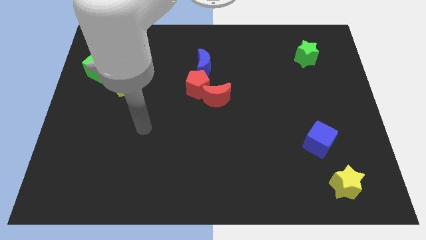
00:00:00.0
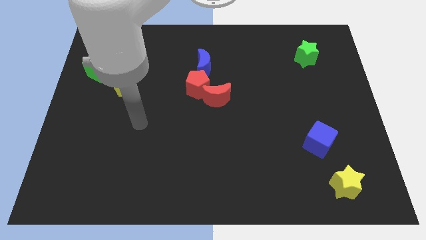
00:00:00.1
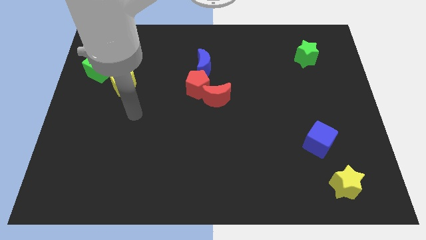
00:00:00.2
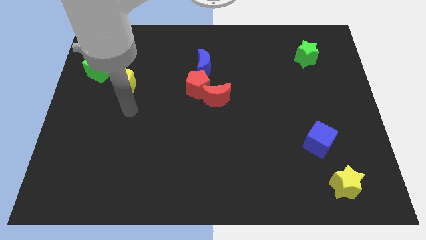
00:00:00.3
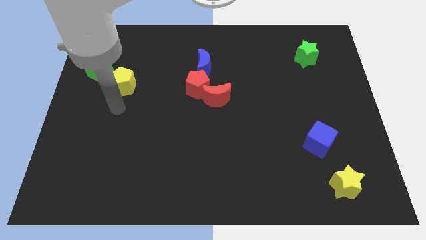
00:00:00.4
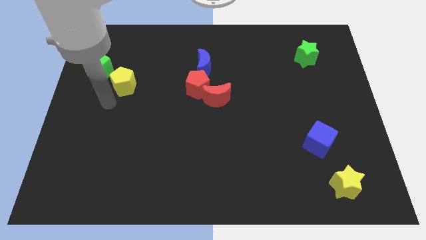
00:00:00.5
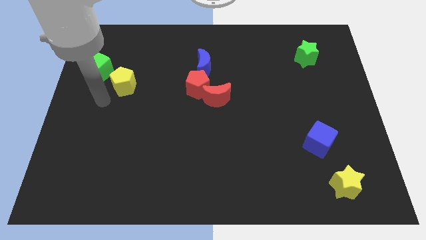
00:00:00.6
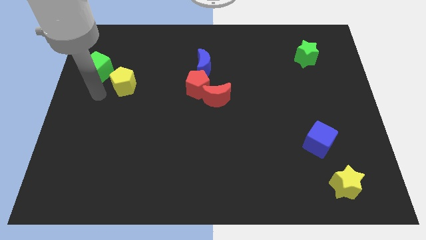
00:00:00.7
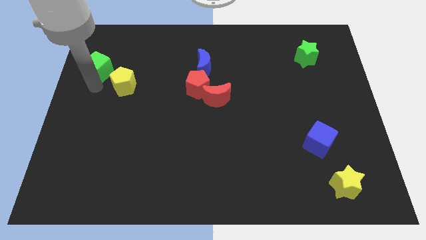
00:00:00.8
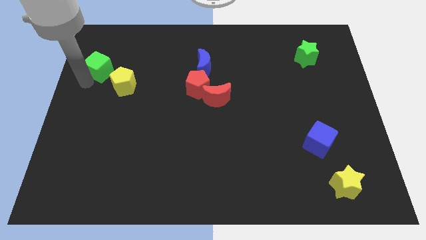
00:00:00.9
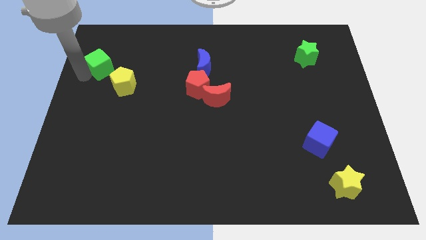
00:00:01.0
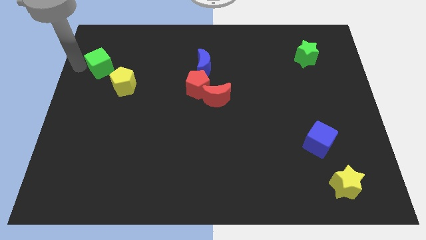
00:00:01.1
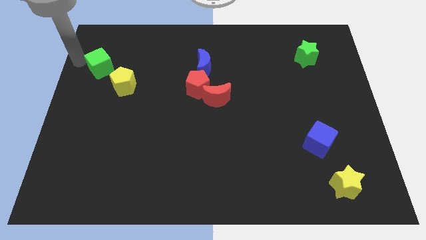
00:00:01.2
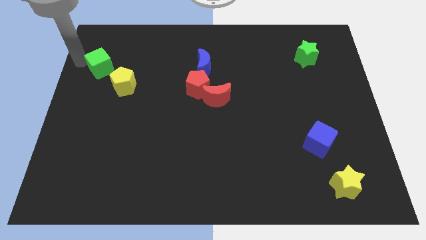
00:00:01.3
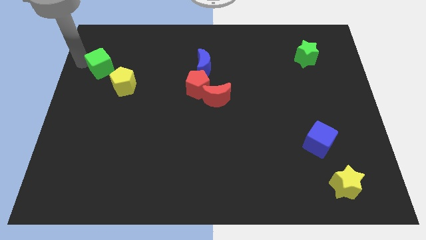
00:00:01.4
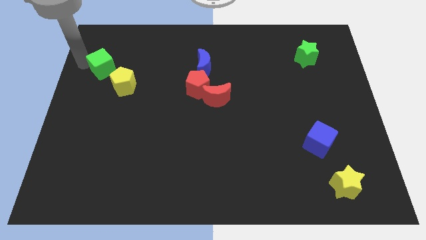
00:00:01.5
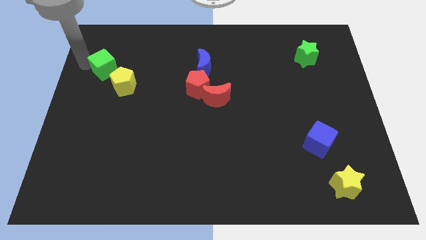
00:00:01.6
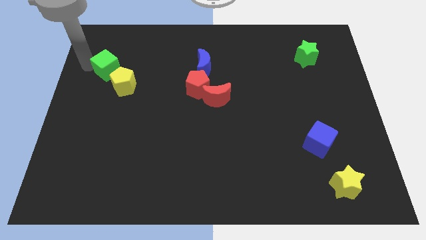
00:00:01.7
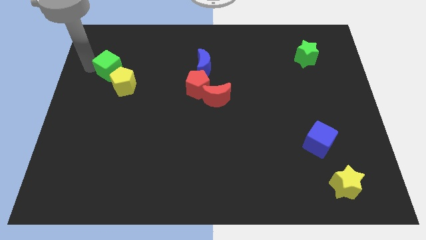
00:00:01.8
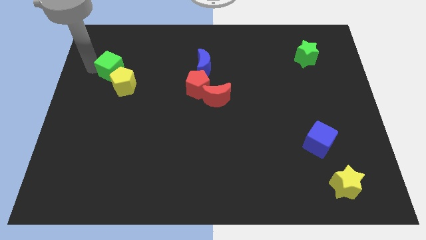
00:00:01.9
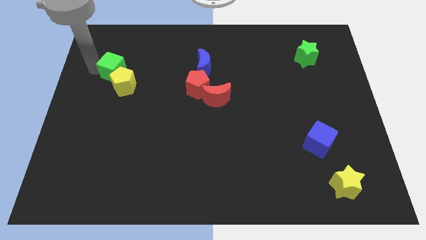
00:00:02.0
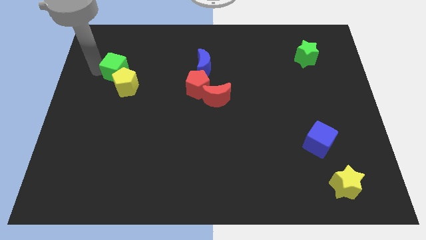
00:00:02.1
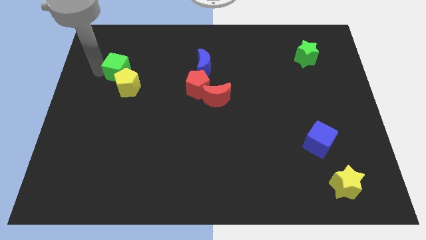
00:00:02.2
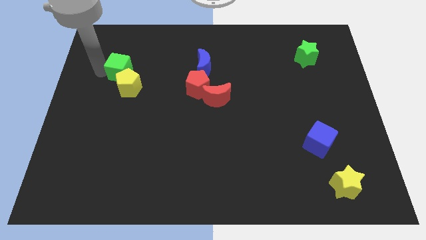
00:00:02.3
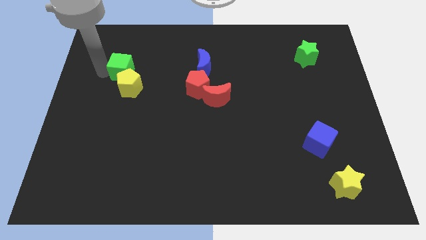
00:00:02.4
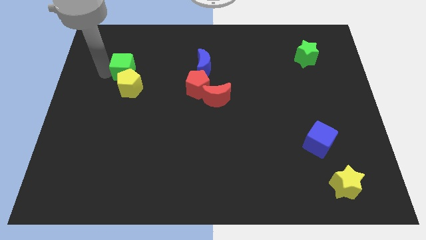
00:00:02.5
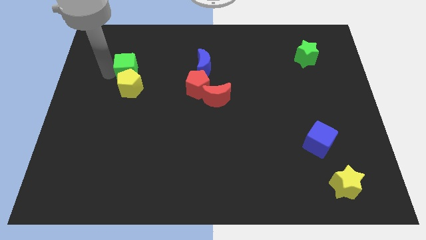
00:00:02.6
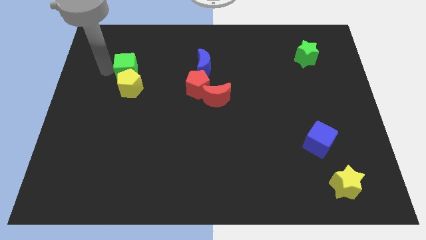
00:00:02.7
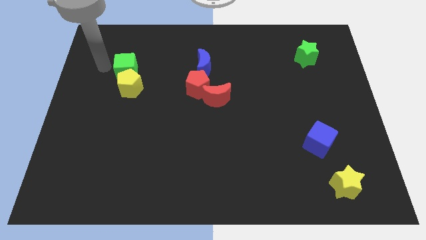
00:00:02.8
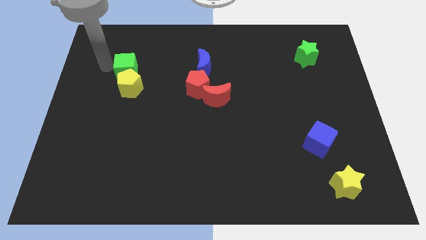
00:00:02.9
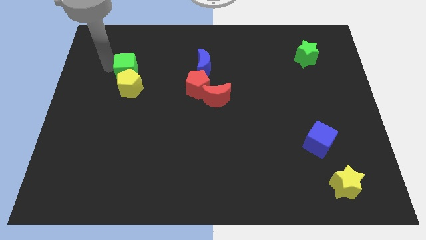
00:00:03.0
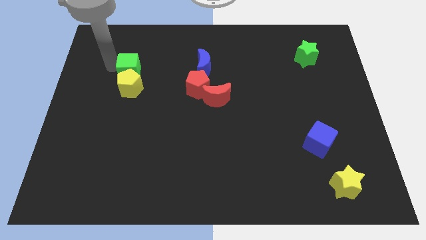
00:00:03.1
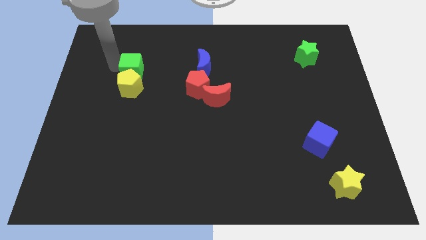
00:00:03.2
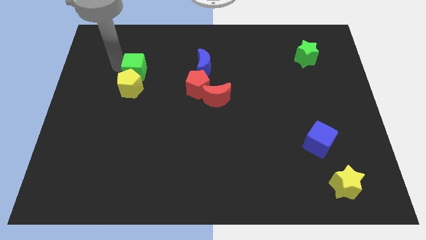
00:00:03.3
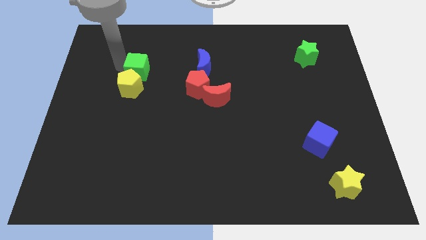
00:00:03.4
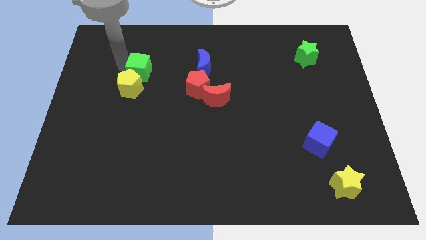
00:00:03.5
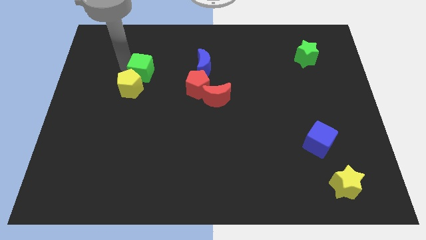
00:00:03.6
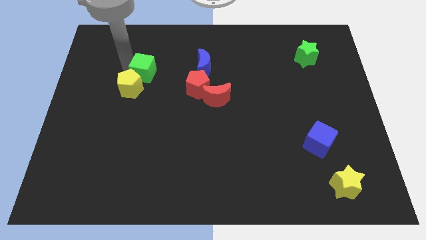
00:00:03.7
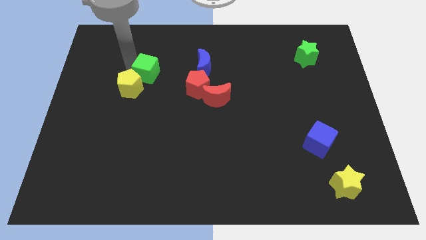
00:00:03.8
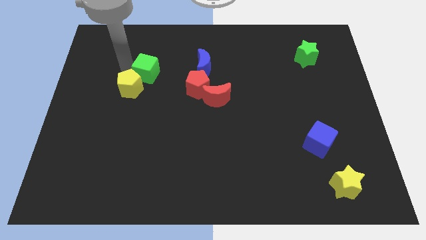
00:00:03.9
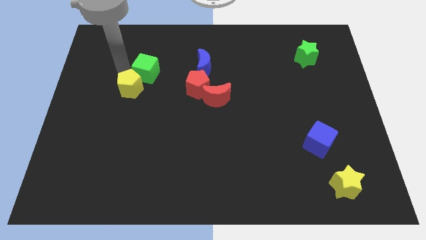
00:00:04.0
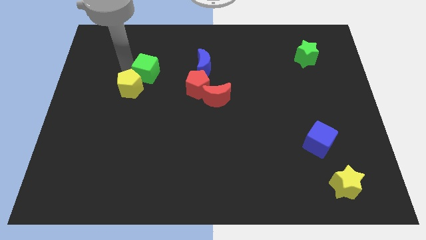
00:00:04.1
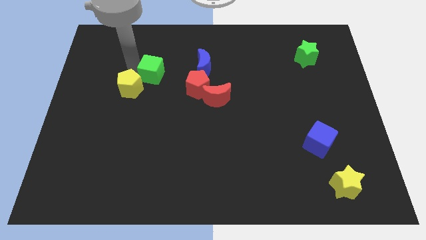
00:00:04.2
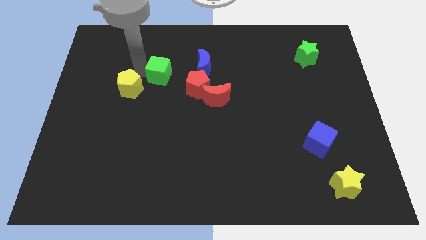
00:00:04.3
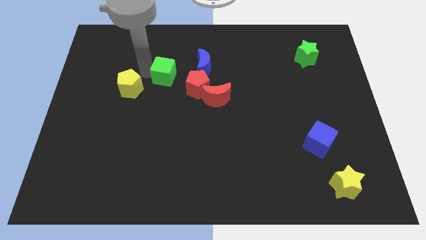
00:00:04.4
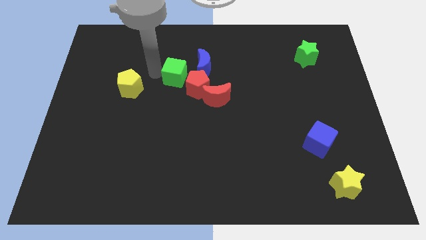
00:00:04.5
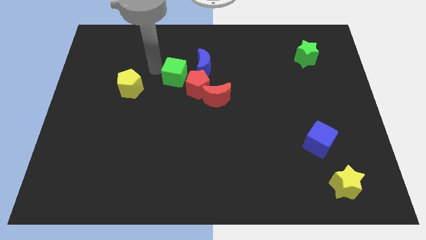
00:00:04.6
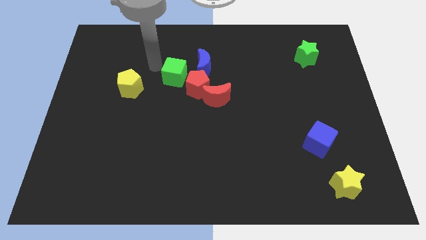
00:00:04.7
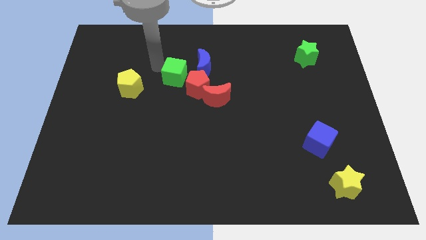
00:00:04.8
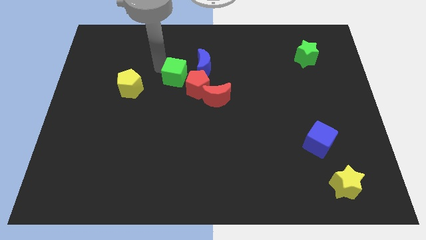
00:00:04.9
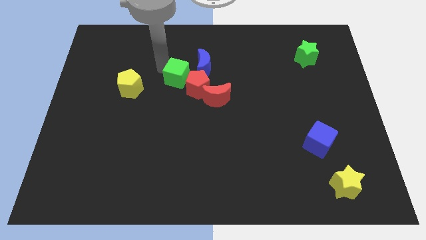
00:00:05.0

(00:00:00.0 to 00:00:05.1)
put the green cube close to the red pentagon

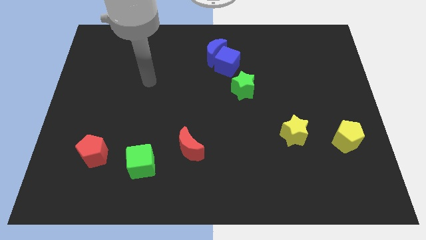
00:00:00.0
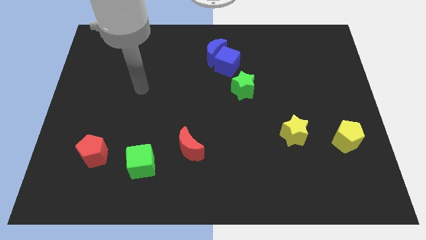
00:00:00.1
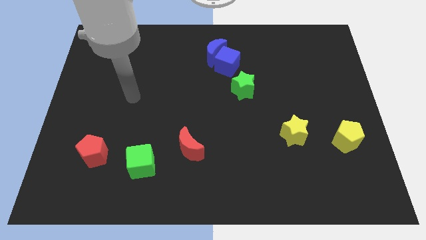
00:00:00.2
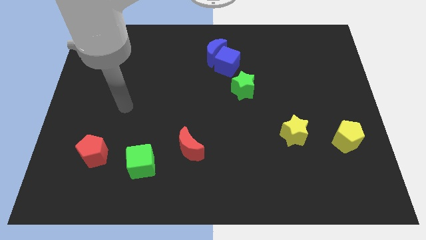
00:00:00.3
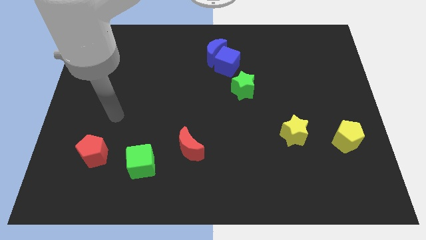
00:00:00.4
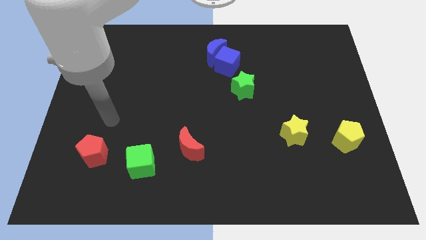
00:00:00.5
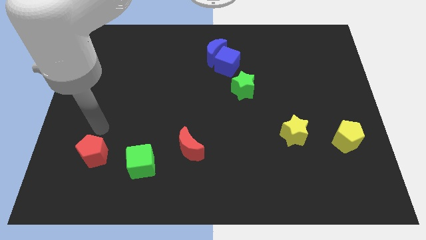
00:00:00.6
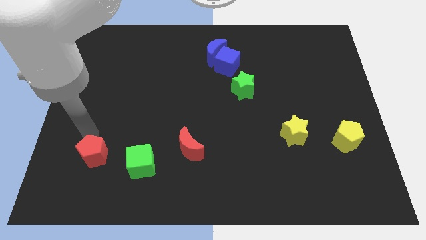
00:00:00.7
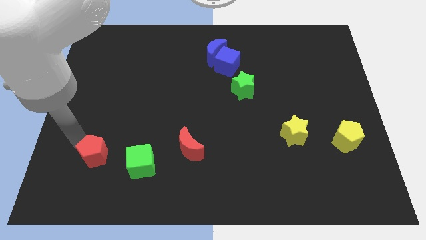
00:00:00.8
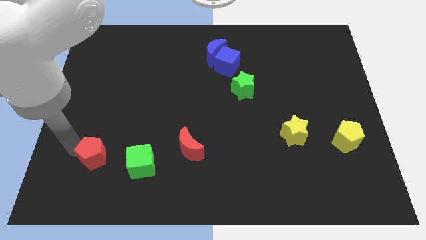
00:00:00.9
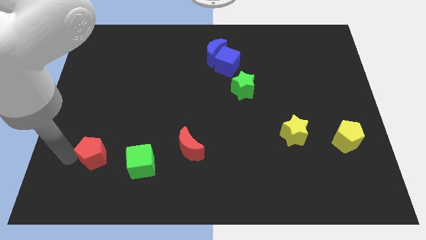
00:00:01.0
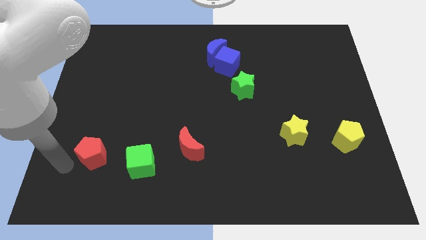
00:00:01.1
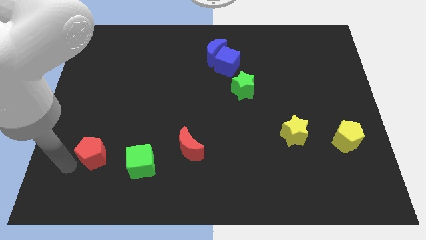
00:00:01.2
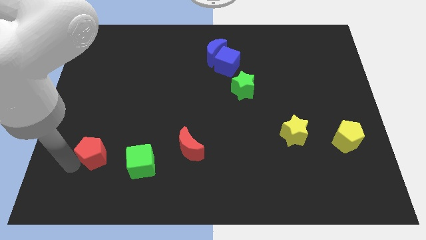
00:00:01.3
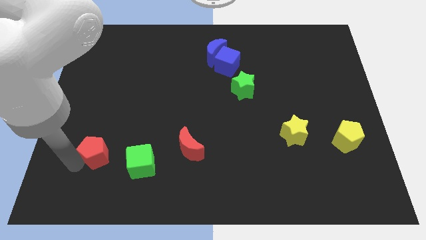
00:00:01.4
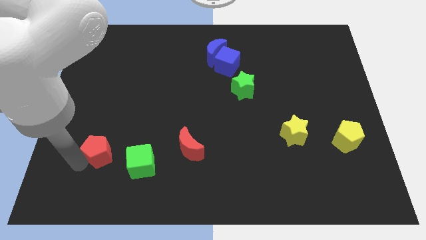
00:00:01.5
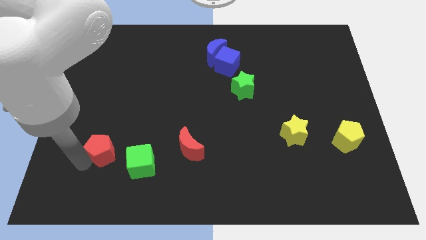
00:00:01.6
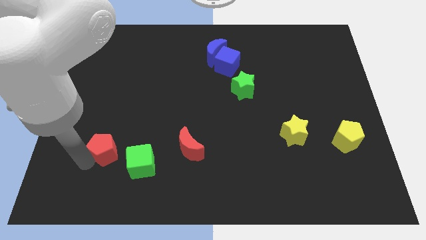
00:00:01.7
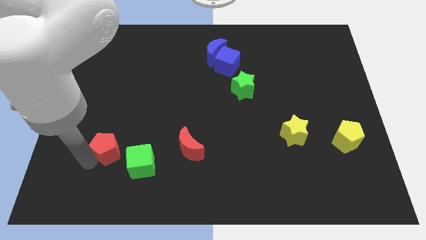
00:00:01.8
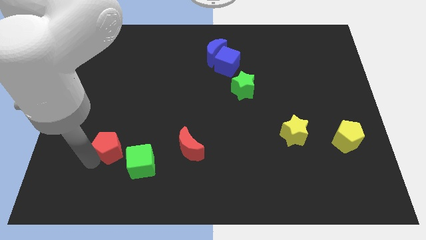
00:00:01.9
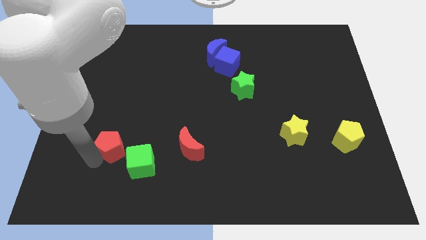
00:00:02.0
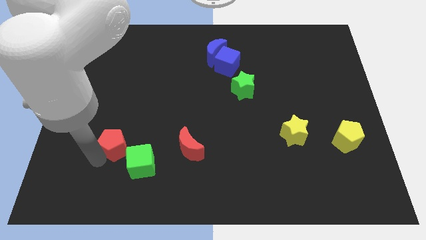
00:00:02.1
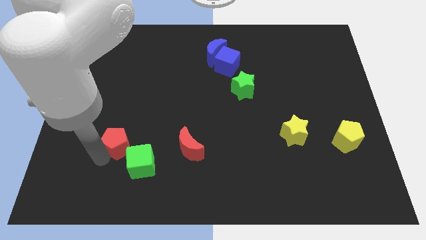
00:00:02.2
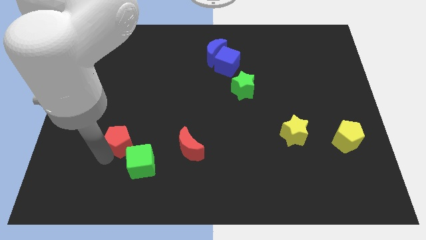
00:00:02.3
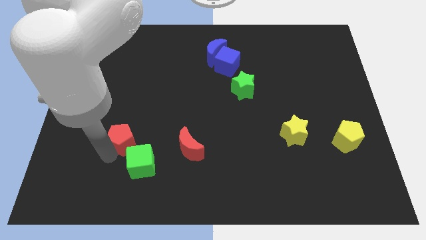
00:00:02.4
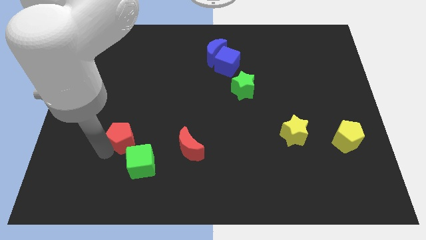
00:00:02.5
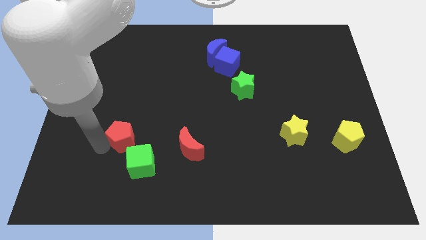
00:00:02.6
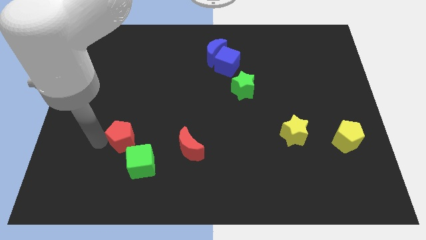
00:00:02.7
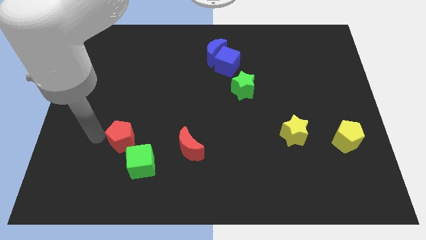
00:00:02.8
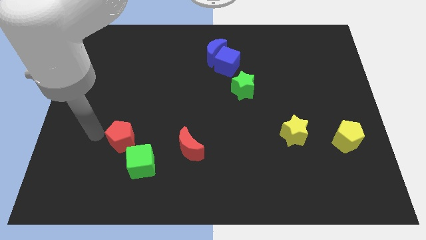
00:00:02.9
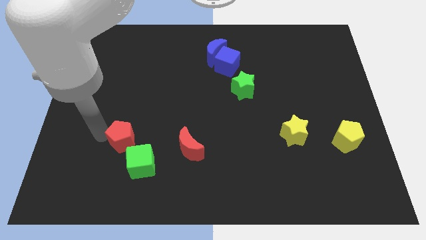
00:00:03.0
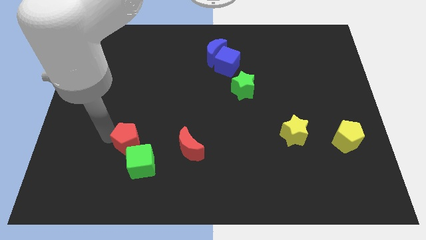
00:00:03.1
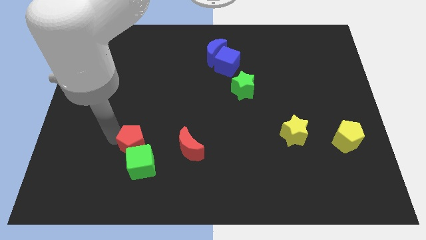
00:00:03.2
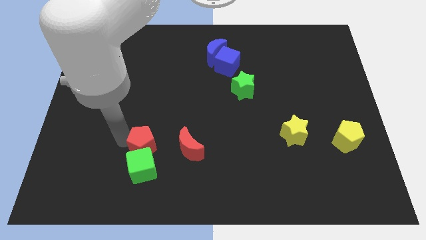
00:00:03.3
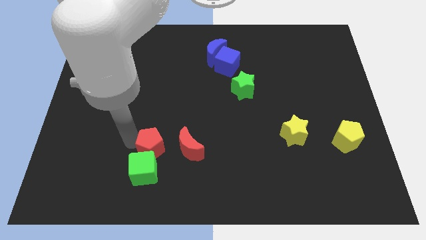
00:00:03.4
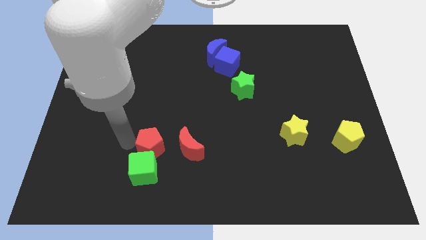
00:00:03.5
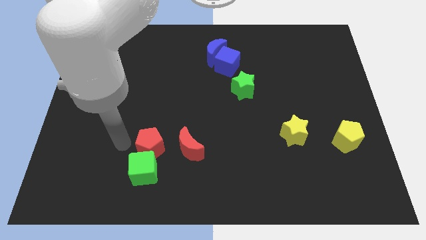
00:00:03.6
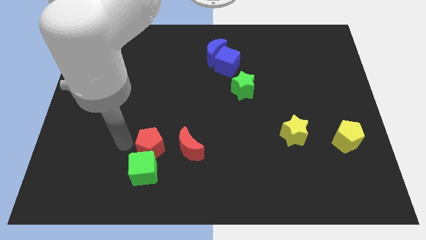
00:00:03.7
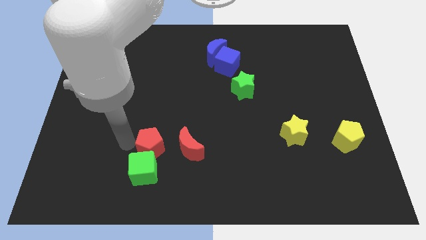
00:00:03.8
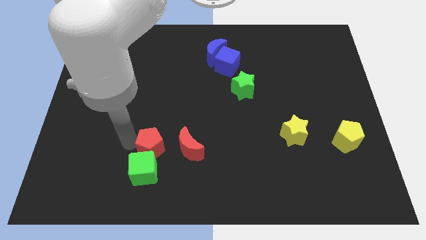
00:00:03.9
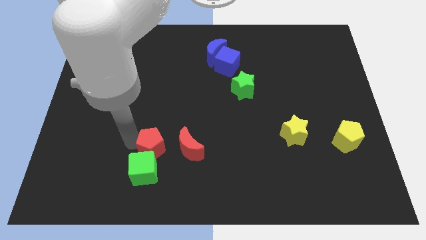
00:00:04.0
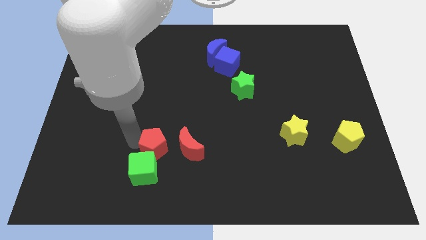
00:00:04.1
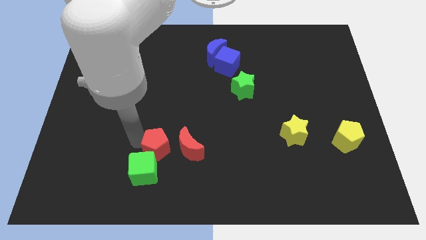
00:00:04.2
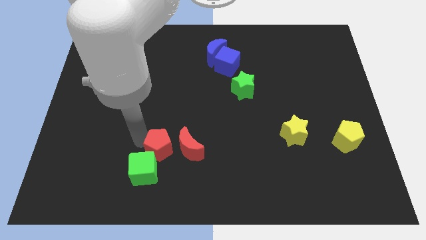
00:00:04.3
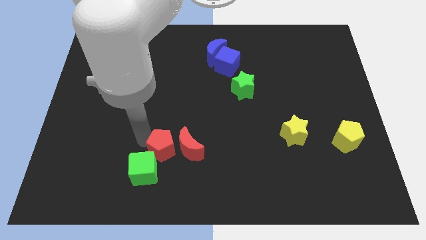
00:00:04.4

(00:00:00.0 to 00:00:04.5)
move the red pentagon close to the red moon
